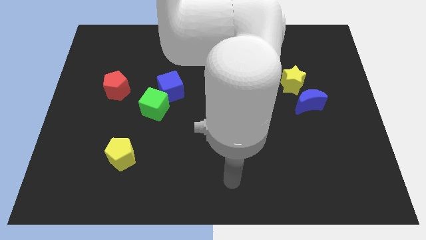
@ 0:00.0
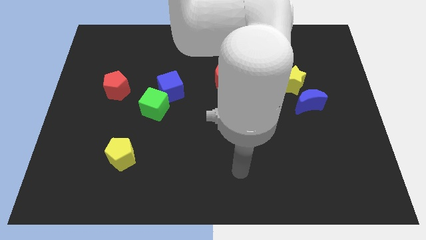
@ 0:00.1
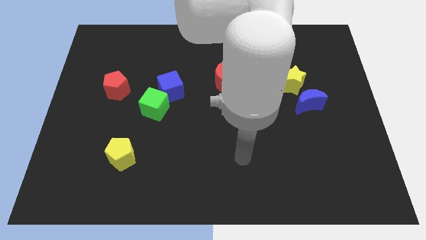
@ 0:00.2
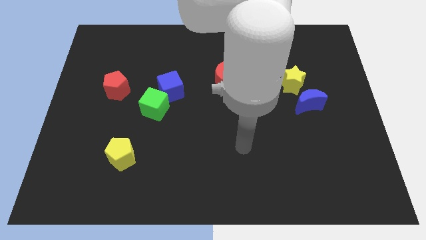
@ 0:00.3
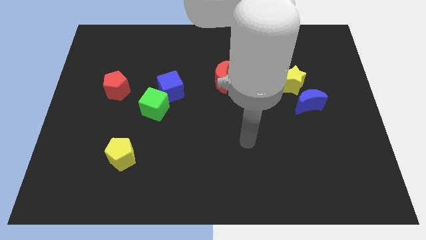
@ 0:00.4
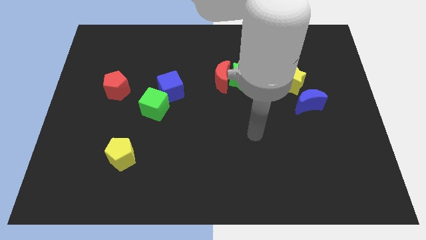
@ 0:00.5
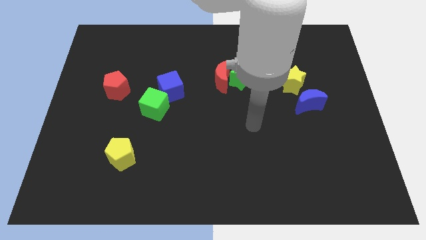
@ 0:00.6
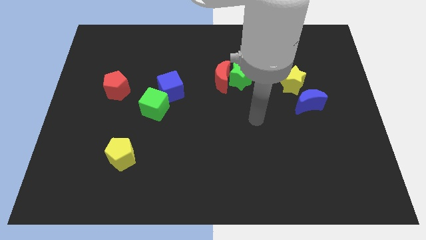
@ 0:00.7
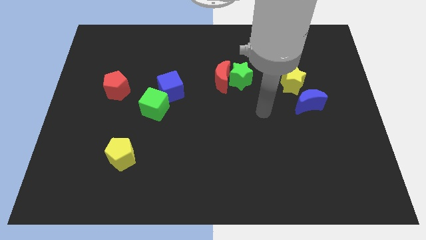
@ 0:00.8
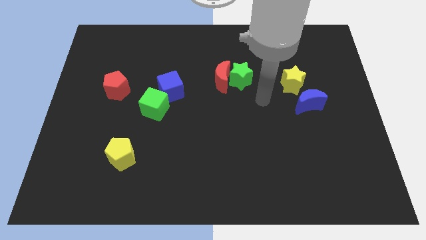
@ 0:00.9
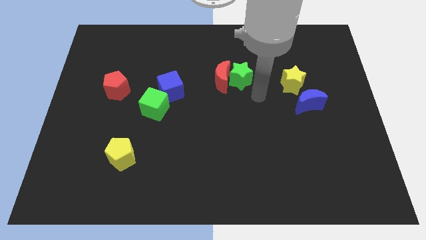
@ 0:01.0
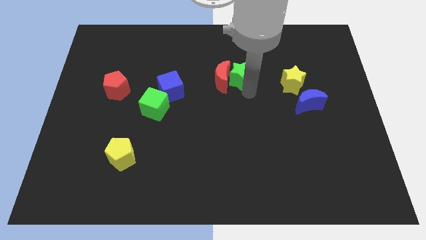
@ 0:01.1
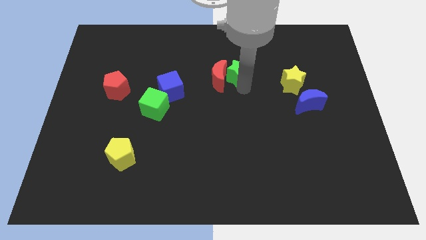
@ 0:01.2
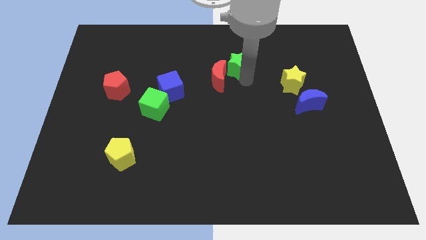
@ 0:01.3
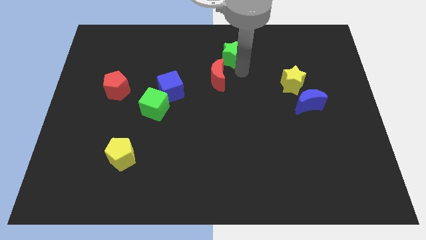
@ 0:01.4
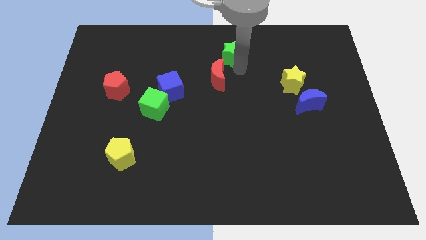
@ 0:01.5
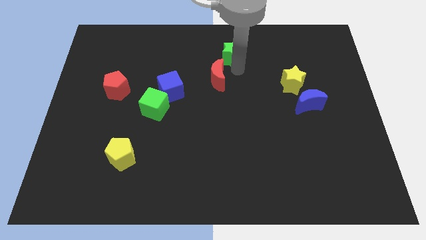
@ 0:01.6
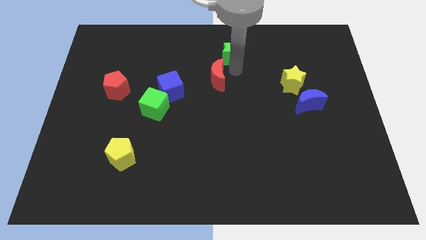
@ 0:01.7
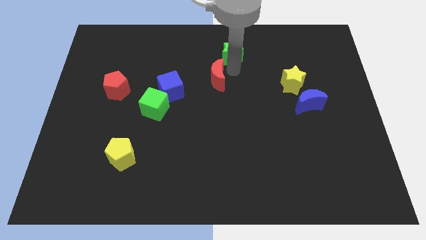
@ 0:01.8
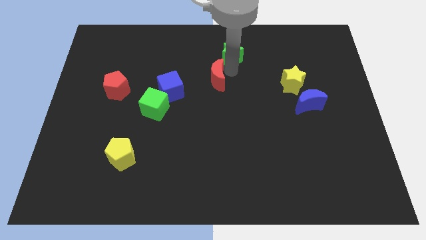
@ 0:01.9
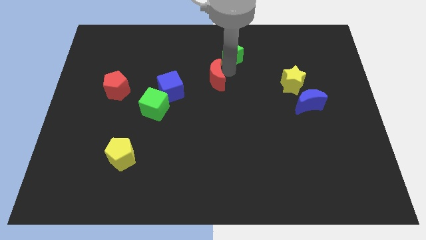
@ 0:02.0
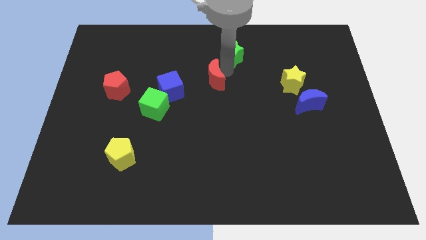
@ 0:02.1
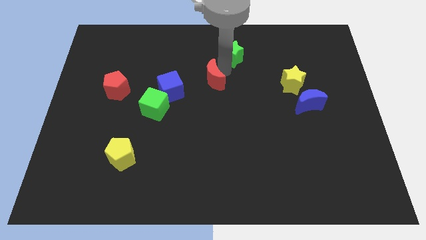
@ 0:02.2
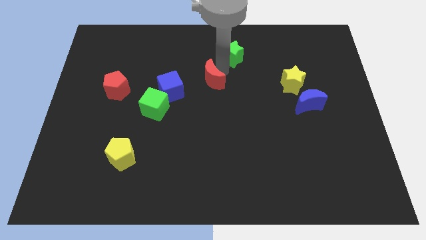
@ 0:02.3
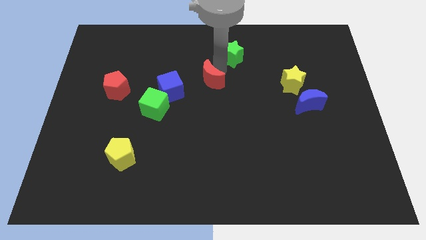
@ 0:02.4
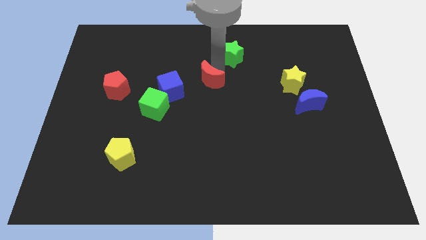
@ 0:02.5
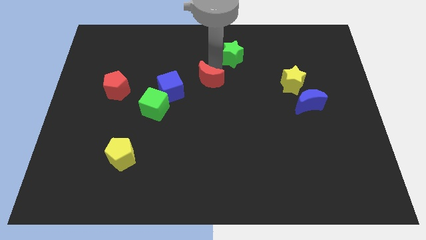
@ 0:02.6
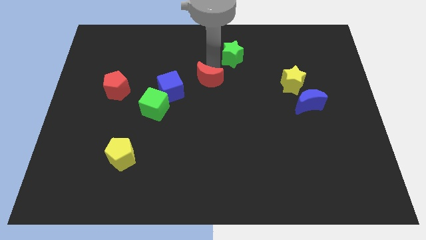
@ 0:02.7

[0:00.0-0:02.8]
pull the red moon apart from the green star

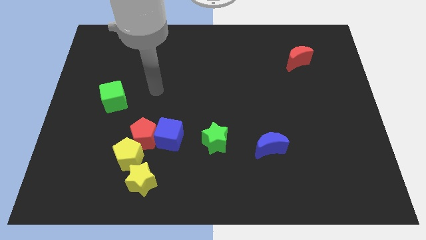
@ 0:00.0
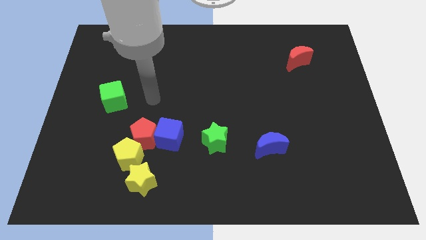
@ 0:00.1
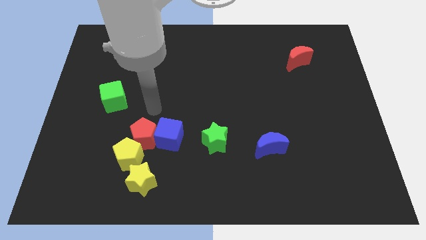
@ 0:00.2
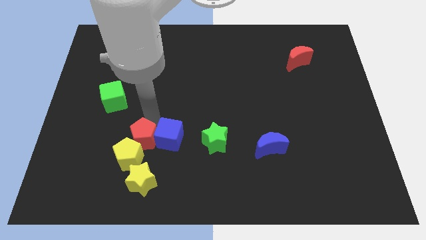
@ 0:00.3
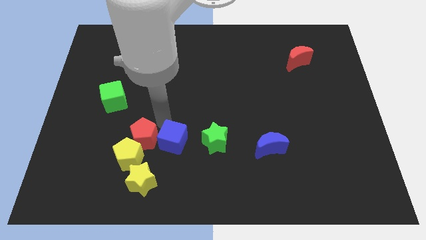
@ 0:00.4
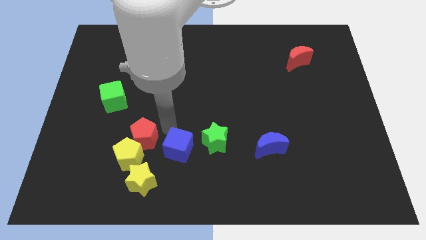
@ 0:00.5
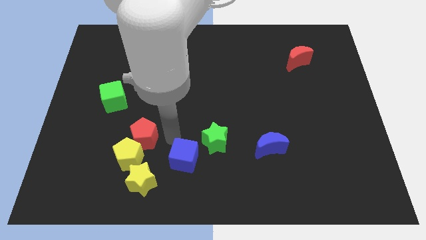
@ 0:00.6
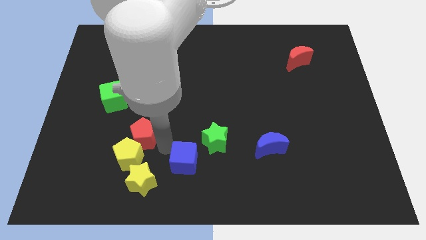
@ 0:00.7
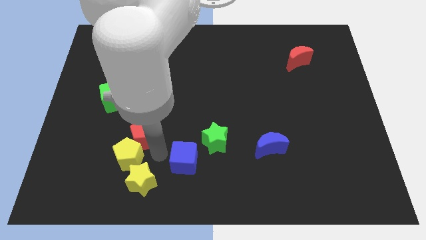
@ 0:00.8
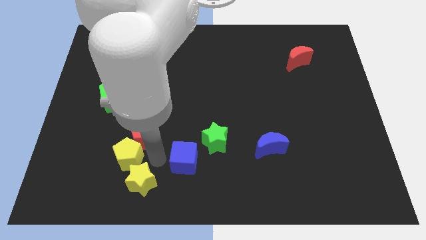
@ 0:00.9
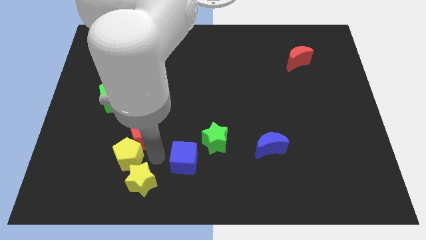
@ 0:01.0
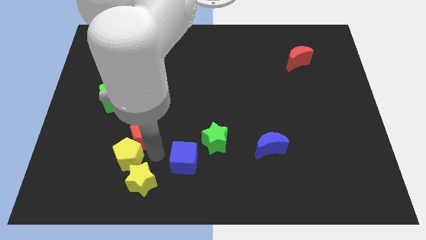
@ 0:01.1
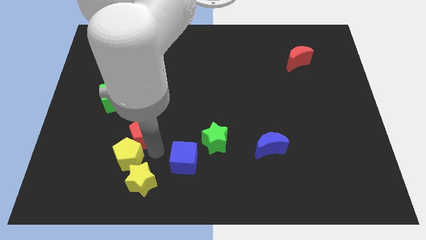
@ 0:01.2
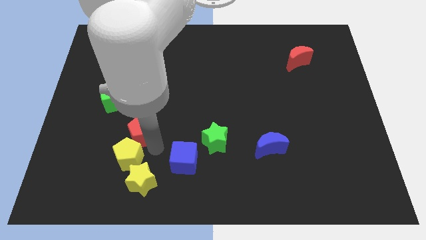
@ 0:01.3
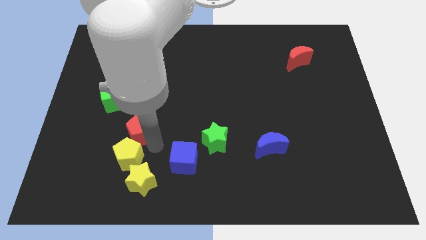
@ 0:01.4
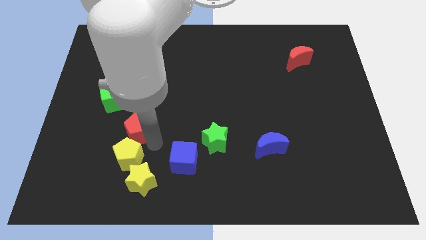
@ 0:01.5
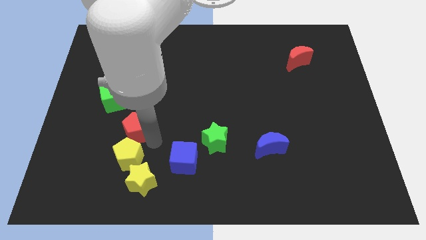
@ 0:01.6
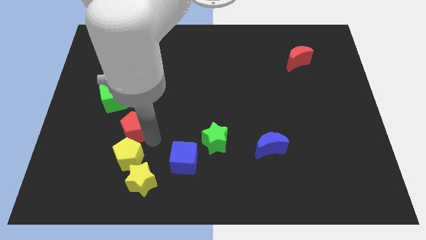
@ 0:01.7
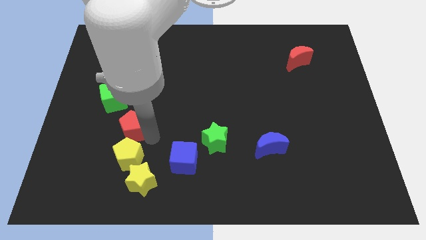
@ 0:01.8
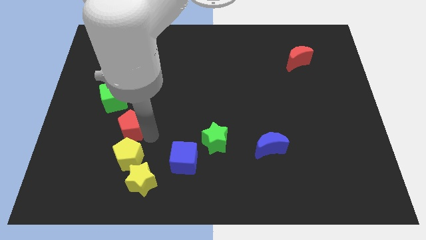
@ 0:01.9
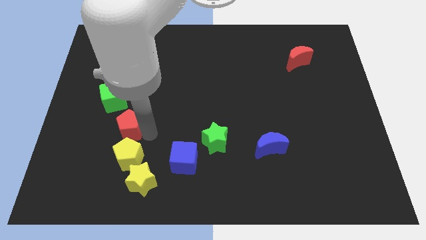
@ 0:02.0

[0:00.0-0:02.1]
move the red pentagon away from the blue cube and yellow pentagon

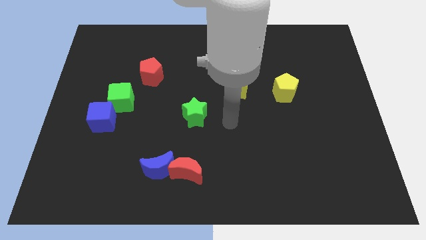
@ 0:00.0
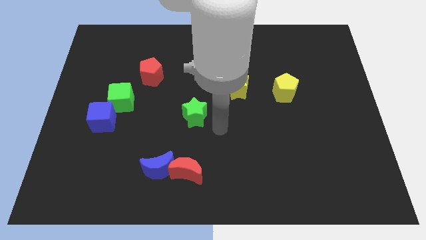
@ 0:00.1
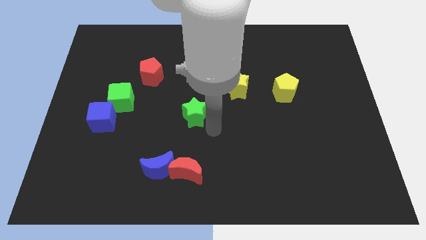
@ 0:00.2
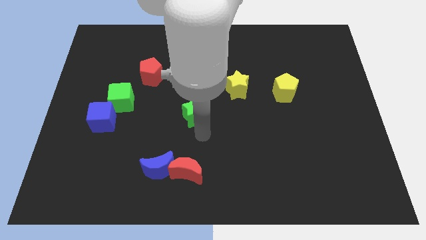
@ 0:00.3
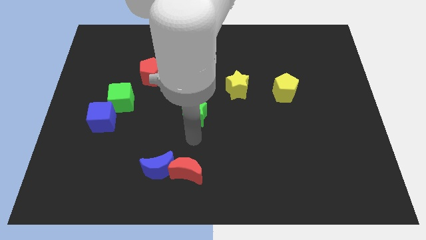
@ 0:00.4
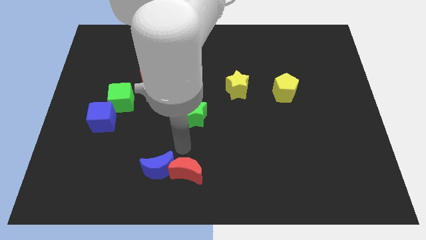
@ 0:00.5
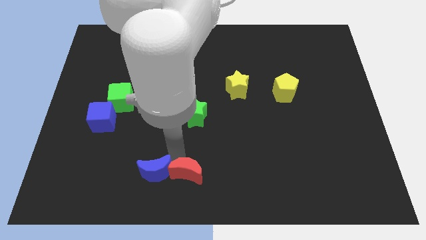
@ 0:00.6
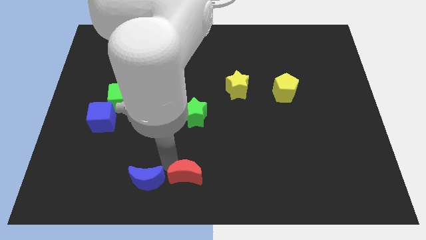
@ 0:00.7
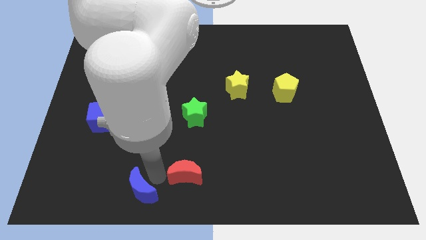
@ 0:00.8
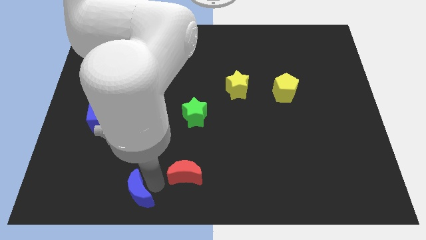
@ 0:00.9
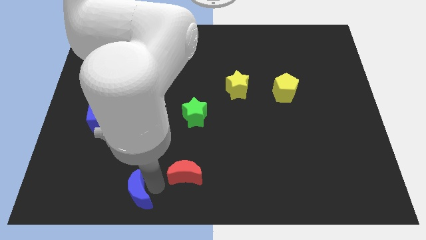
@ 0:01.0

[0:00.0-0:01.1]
separate the red moon from the blue moon

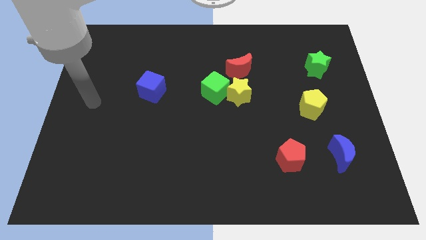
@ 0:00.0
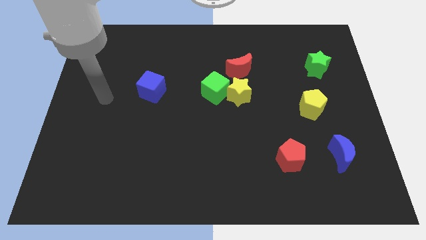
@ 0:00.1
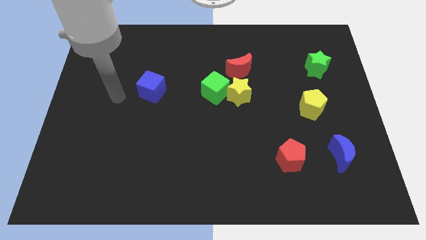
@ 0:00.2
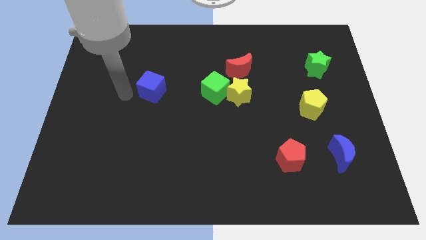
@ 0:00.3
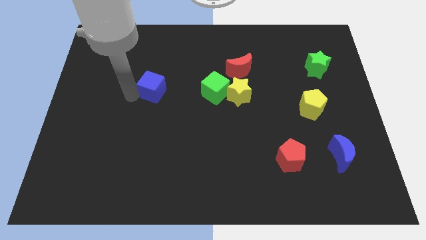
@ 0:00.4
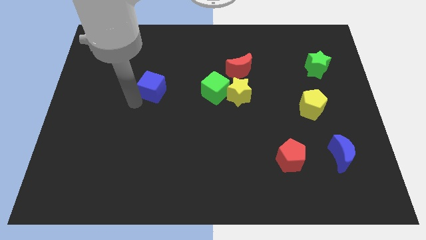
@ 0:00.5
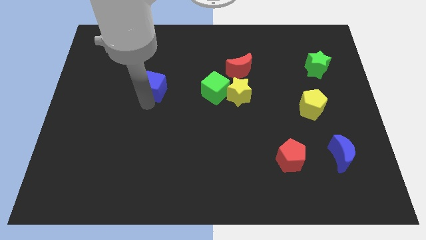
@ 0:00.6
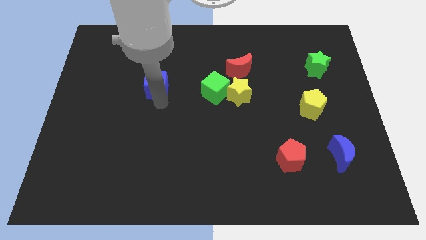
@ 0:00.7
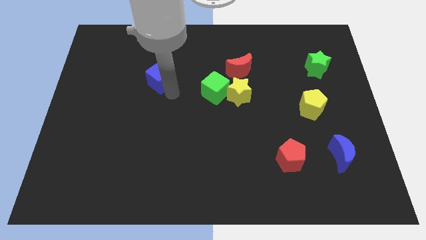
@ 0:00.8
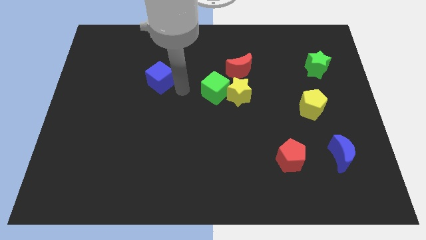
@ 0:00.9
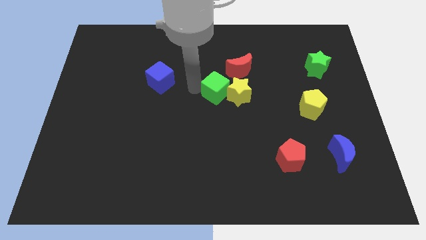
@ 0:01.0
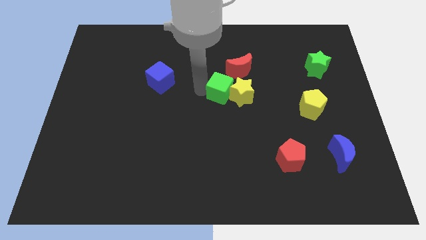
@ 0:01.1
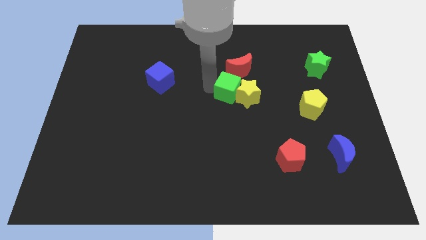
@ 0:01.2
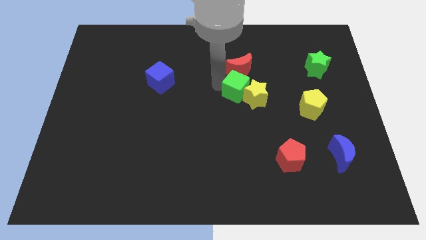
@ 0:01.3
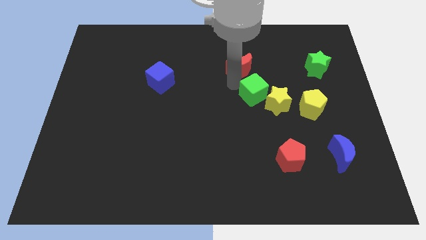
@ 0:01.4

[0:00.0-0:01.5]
move the yellow star away from the green cube and red moon

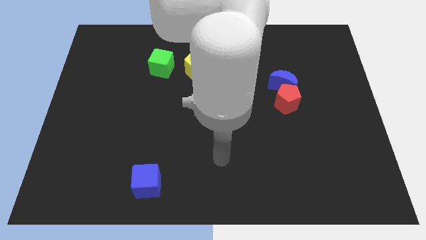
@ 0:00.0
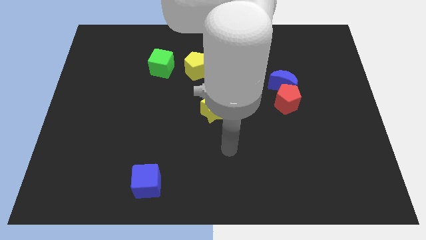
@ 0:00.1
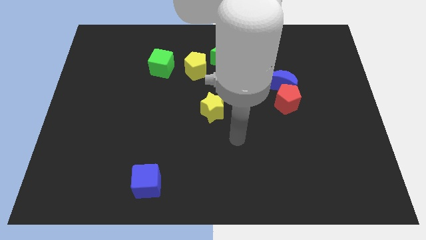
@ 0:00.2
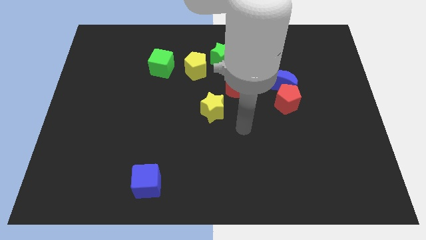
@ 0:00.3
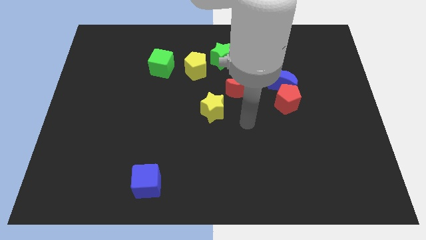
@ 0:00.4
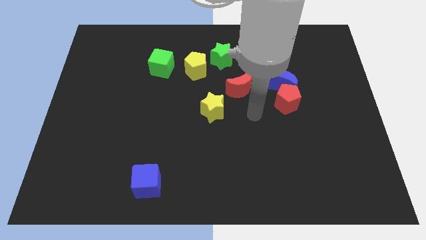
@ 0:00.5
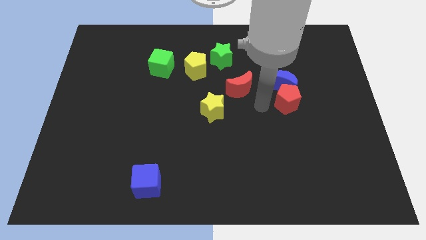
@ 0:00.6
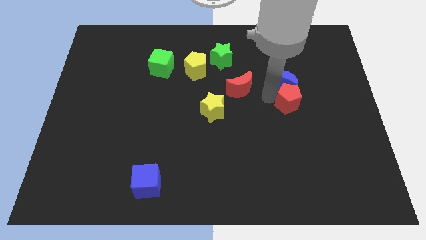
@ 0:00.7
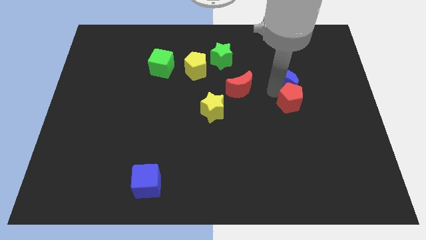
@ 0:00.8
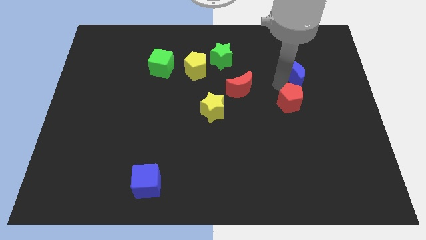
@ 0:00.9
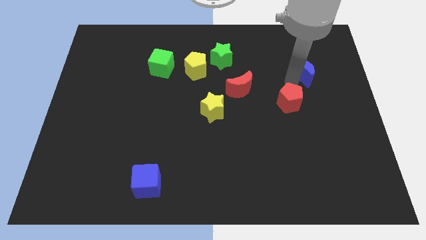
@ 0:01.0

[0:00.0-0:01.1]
separate the red pentagon from the blue moon

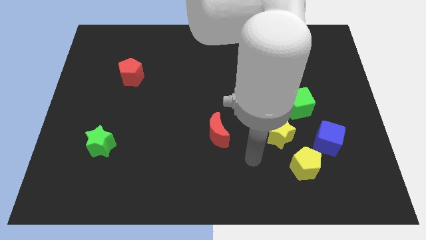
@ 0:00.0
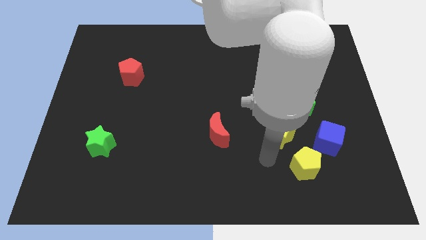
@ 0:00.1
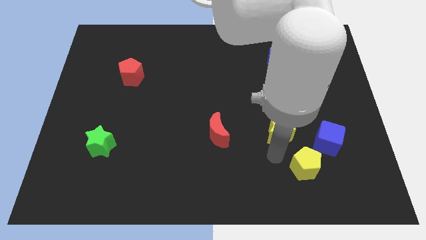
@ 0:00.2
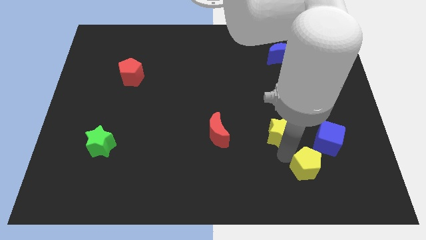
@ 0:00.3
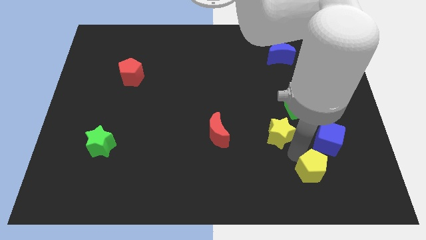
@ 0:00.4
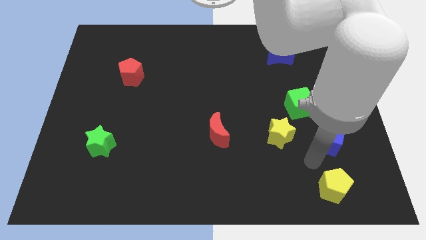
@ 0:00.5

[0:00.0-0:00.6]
separate the blue cube from the yellow pentagon
